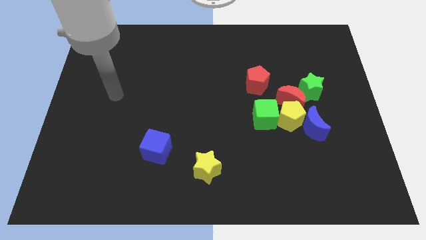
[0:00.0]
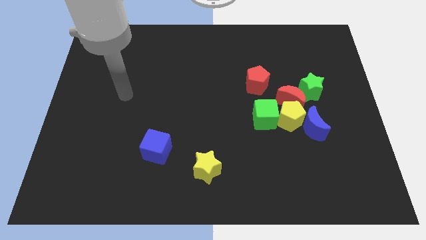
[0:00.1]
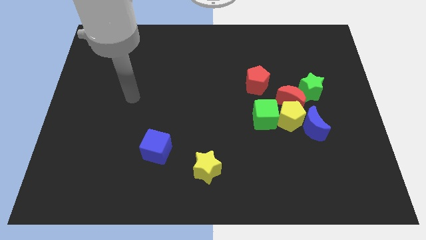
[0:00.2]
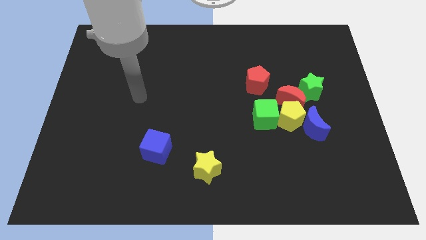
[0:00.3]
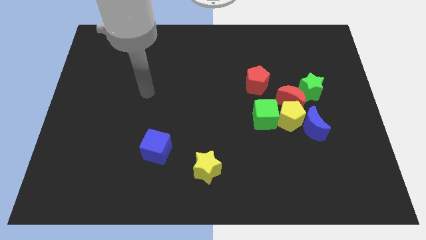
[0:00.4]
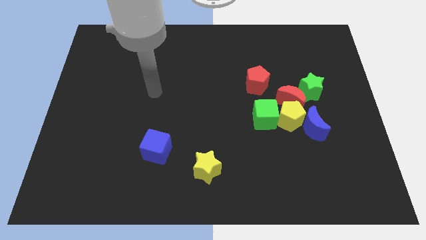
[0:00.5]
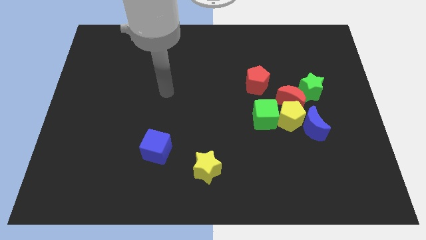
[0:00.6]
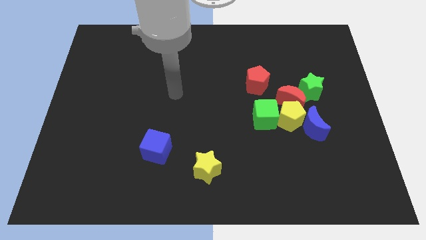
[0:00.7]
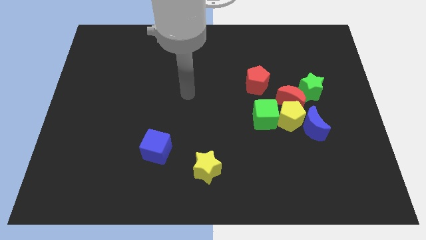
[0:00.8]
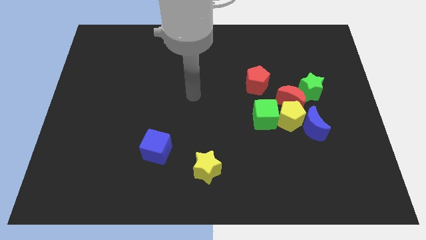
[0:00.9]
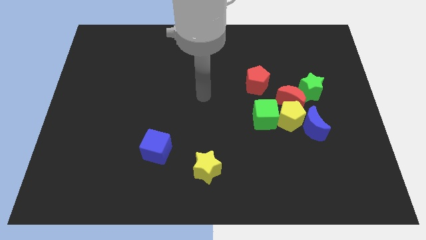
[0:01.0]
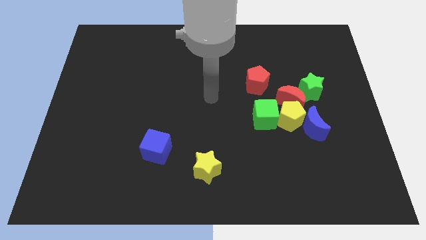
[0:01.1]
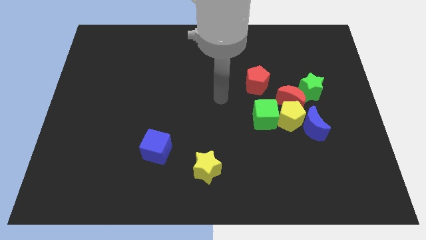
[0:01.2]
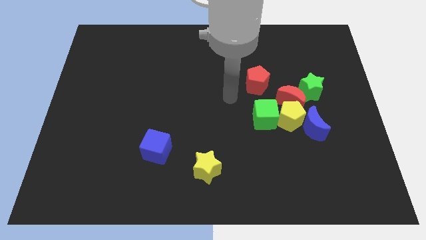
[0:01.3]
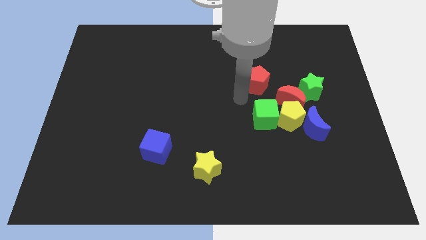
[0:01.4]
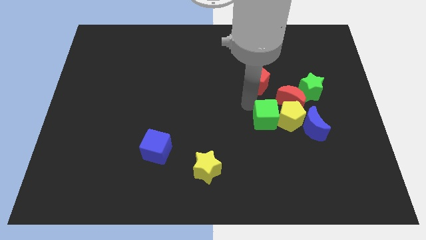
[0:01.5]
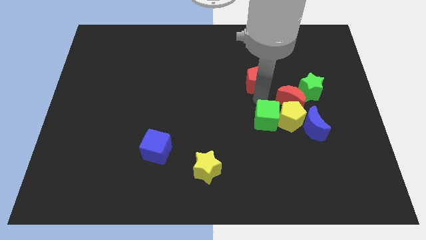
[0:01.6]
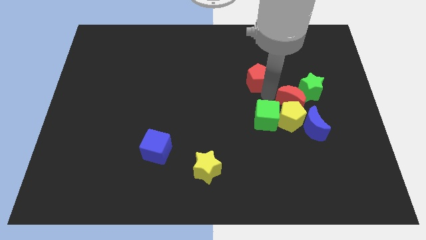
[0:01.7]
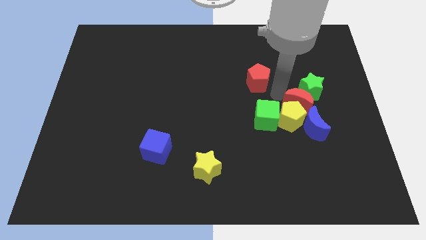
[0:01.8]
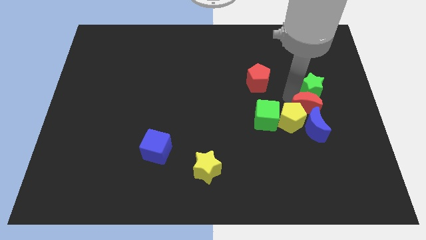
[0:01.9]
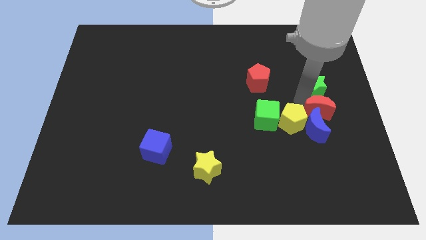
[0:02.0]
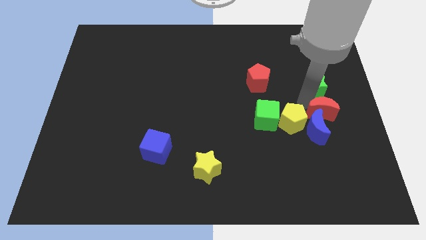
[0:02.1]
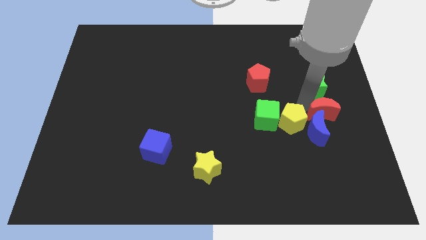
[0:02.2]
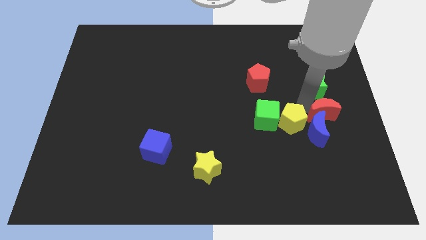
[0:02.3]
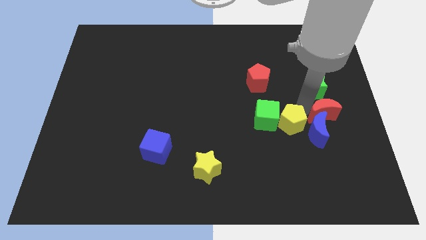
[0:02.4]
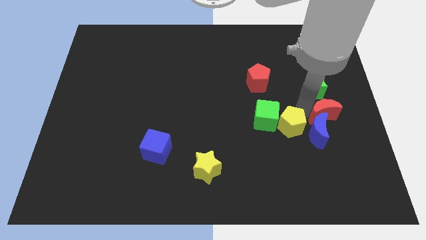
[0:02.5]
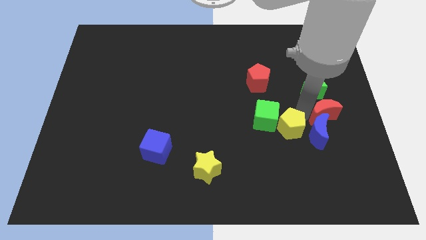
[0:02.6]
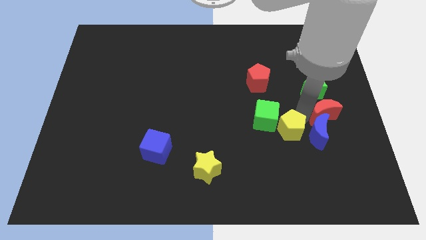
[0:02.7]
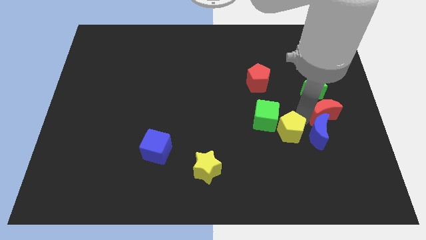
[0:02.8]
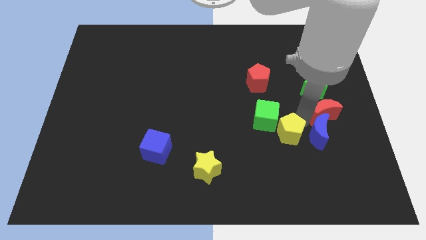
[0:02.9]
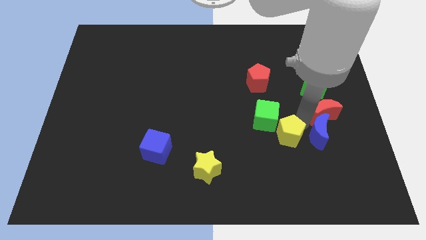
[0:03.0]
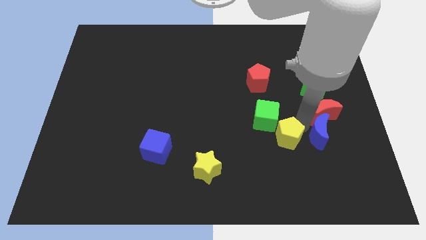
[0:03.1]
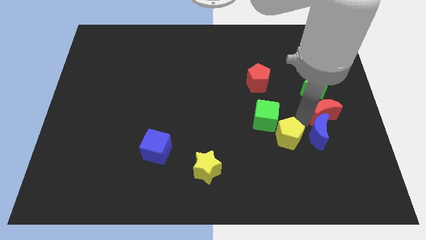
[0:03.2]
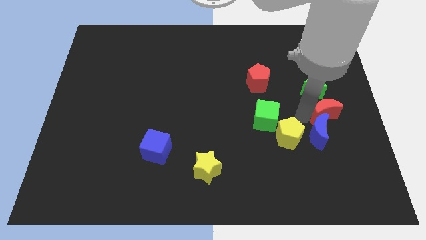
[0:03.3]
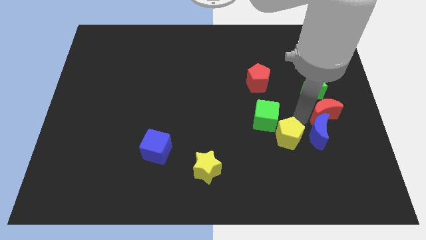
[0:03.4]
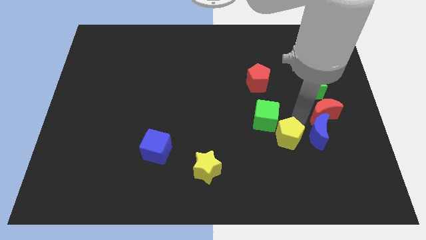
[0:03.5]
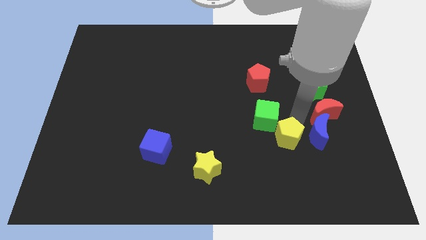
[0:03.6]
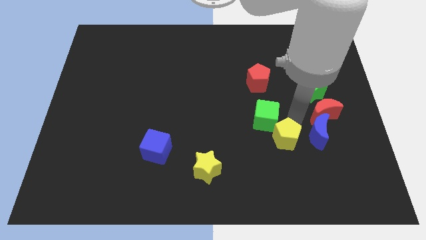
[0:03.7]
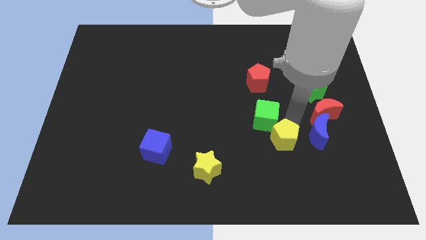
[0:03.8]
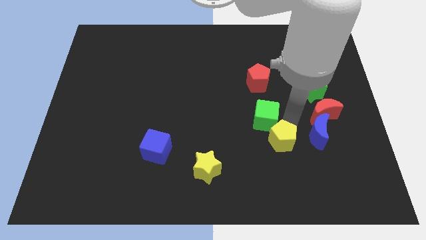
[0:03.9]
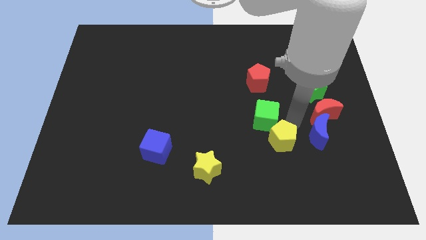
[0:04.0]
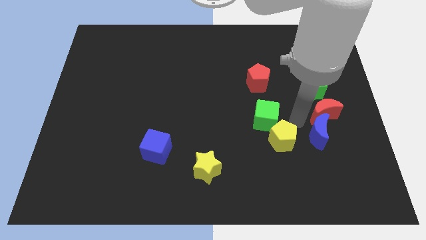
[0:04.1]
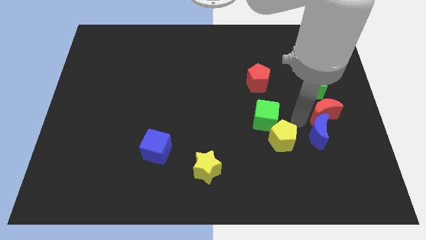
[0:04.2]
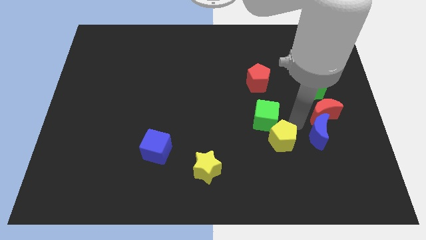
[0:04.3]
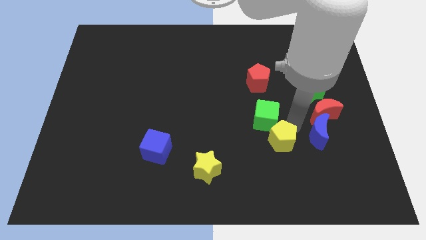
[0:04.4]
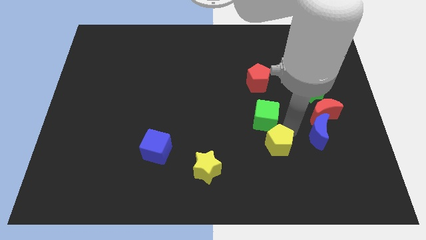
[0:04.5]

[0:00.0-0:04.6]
move the yellow pentagon away from the group of blocks

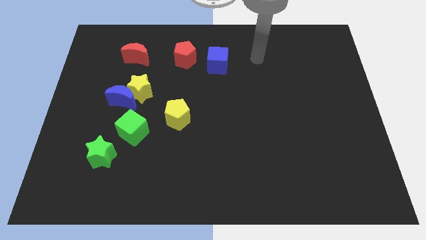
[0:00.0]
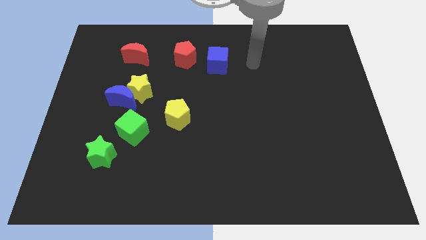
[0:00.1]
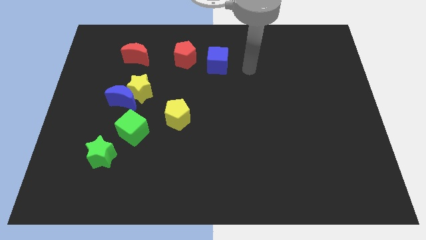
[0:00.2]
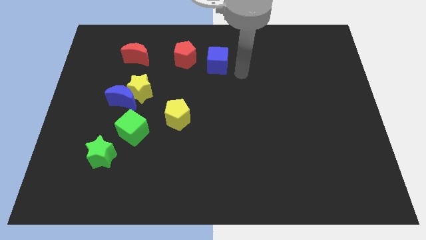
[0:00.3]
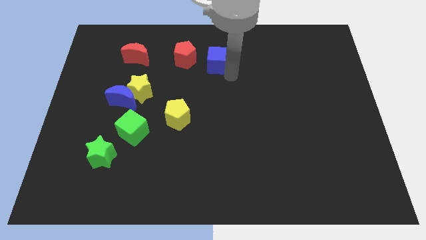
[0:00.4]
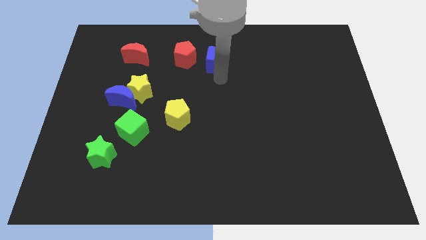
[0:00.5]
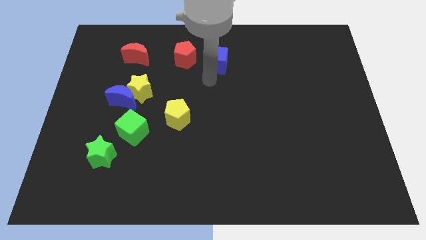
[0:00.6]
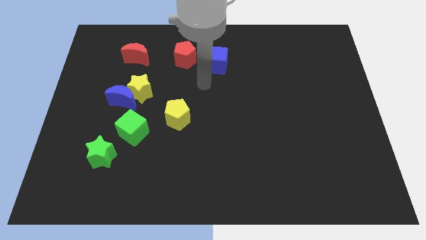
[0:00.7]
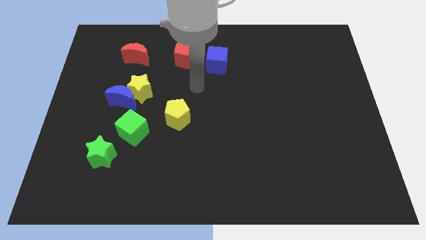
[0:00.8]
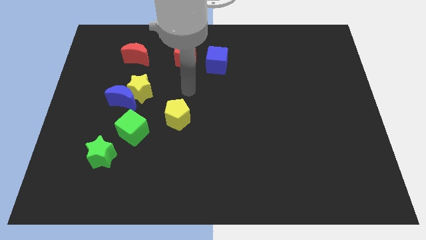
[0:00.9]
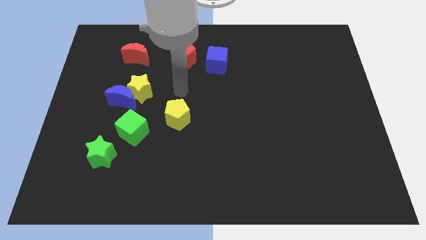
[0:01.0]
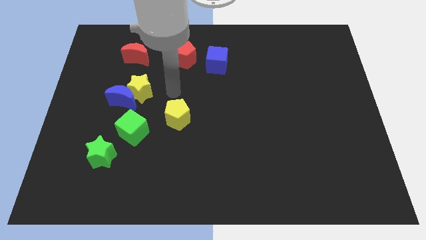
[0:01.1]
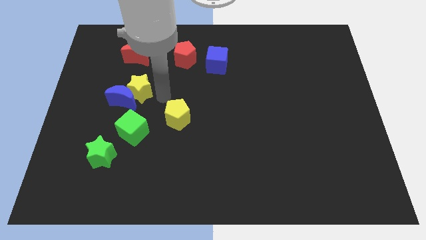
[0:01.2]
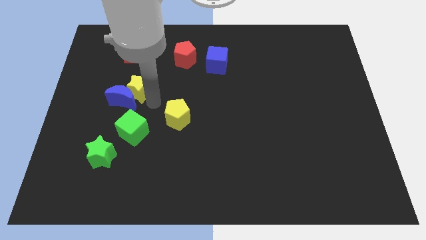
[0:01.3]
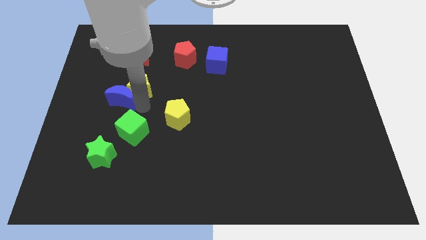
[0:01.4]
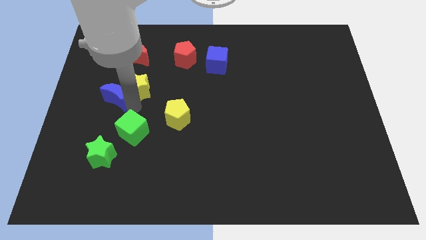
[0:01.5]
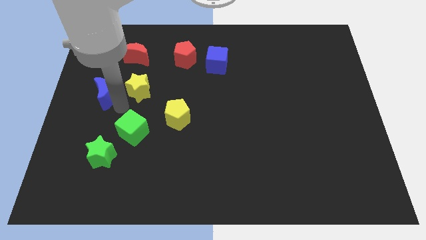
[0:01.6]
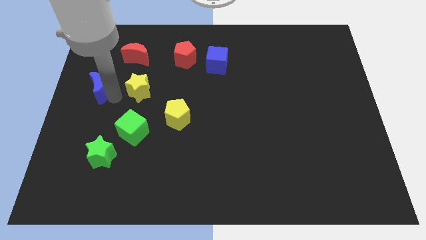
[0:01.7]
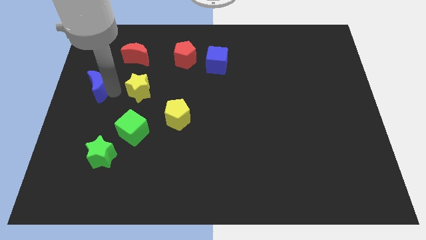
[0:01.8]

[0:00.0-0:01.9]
separate the yellow star from the blue moon

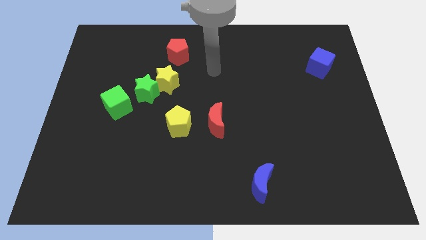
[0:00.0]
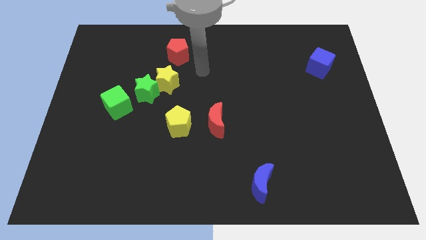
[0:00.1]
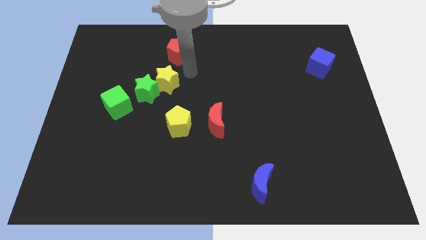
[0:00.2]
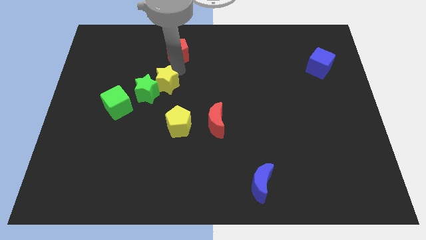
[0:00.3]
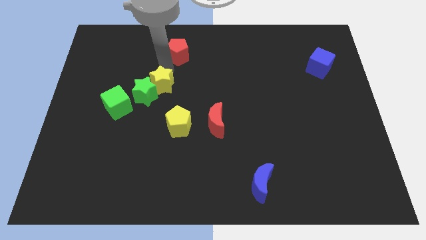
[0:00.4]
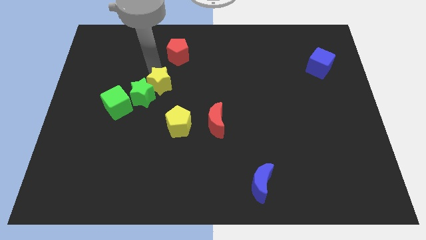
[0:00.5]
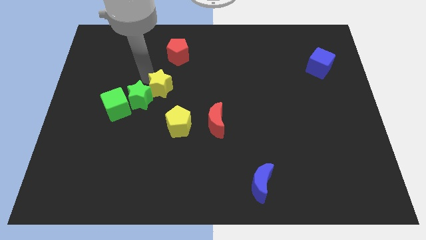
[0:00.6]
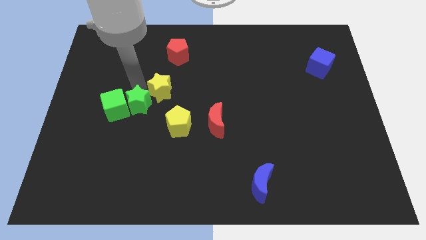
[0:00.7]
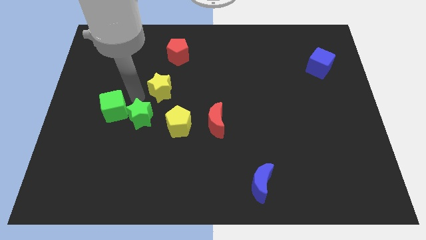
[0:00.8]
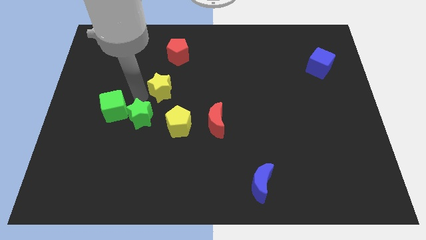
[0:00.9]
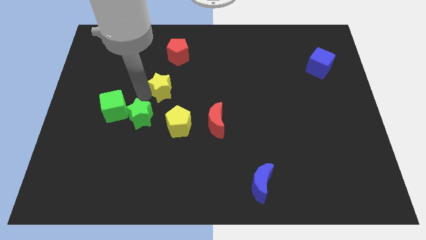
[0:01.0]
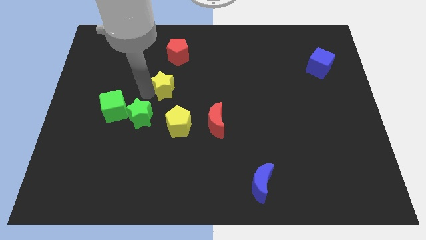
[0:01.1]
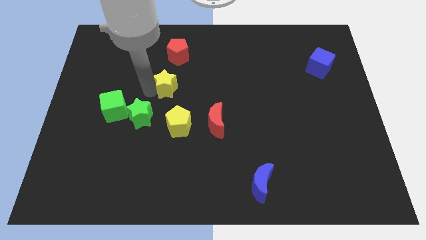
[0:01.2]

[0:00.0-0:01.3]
pull the yellow star apart from the green star

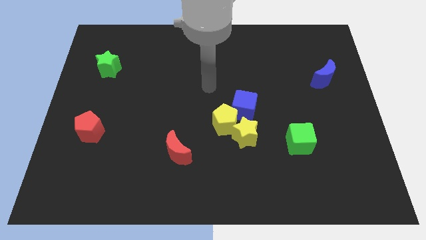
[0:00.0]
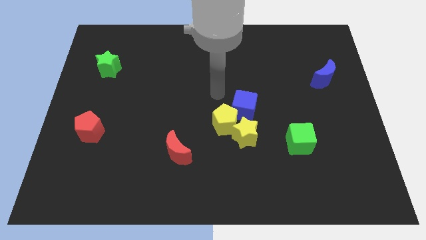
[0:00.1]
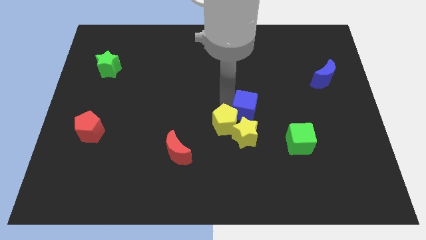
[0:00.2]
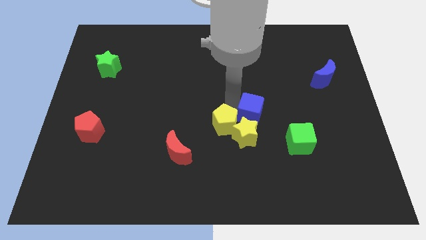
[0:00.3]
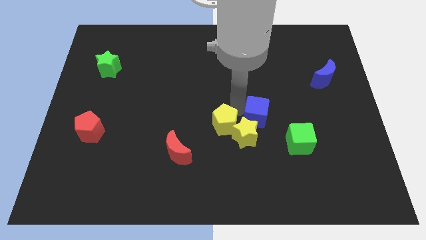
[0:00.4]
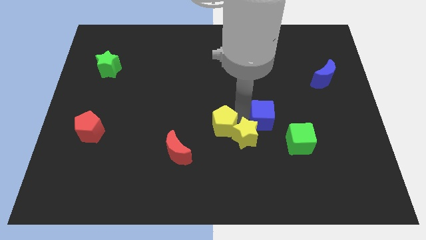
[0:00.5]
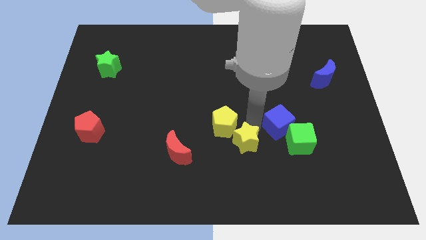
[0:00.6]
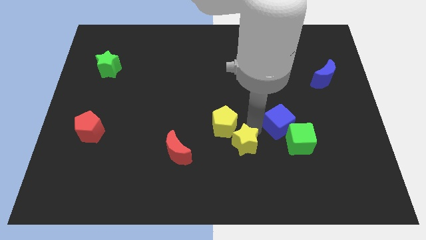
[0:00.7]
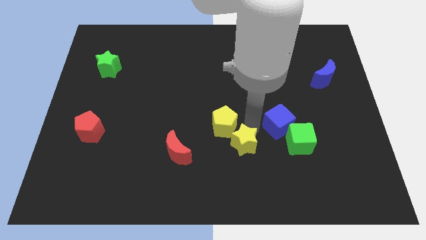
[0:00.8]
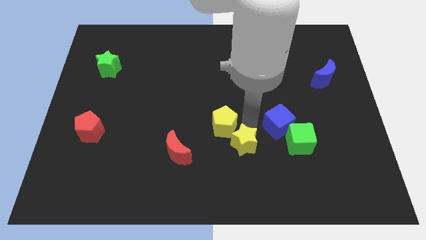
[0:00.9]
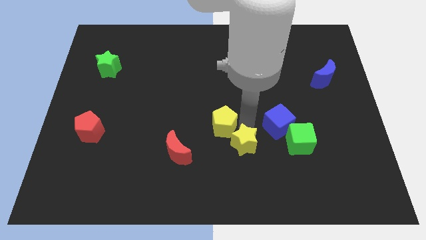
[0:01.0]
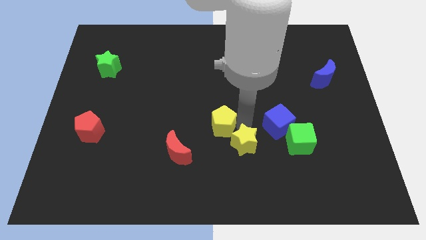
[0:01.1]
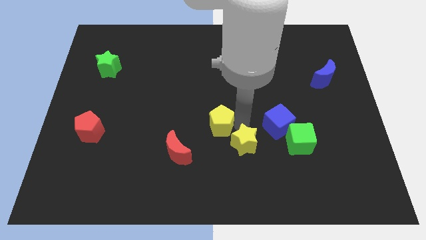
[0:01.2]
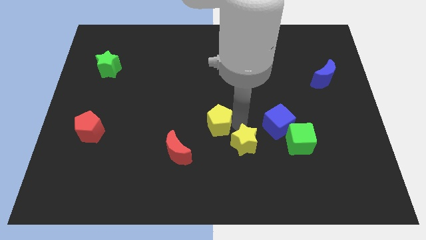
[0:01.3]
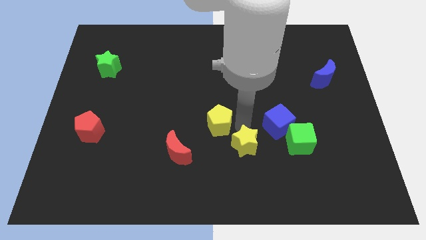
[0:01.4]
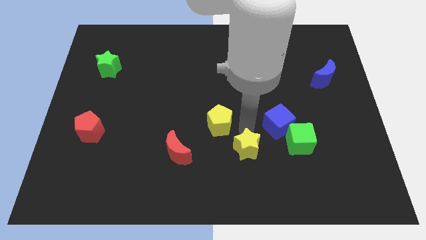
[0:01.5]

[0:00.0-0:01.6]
separate the yellow pentagon from the yellow star and blue cube

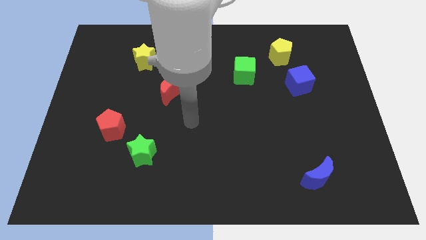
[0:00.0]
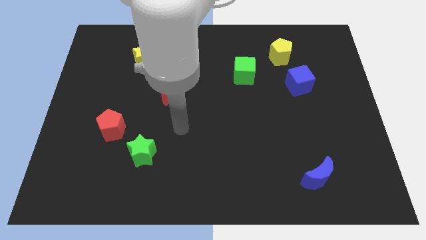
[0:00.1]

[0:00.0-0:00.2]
separate the red pentagon from the green star
